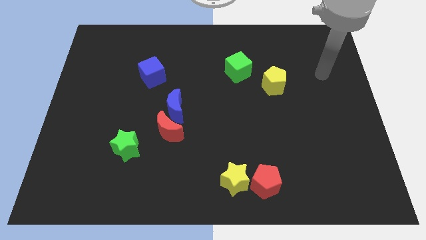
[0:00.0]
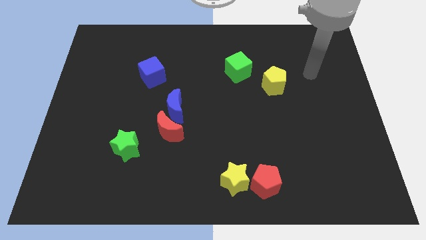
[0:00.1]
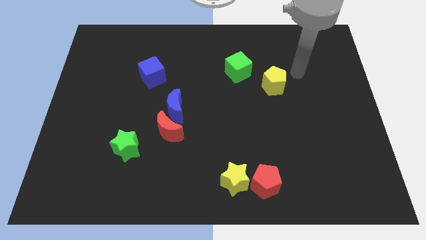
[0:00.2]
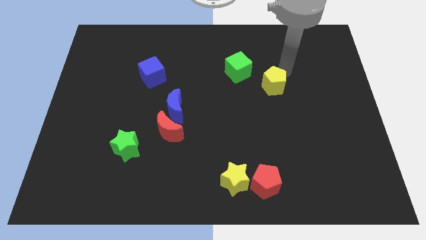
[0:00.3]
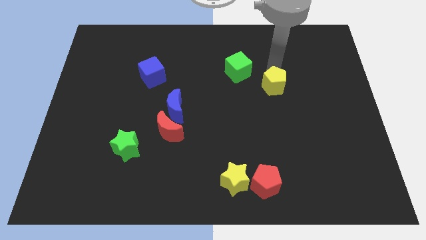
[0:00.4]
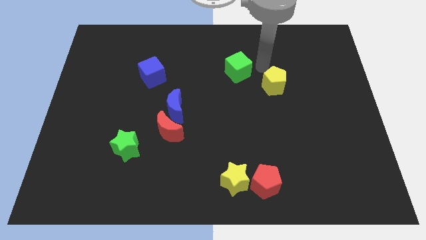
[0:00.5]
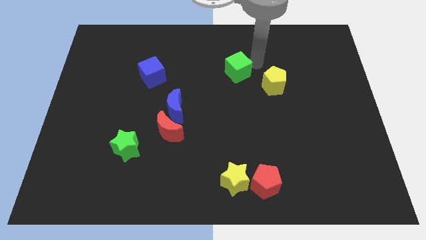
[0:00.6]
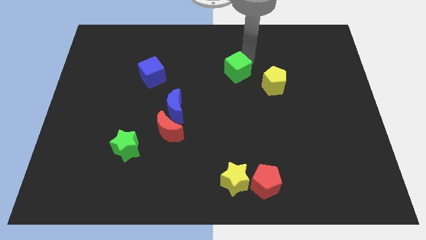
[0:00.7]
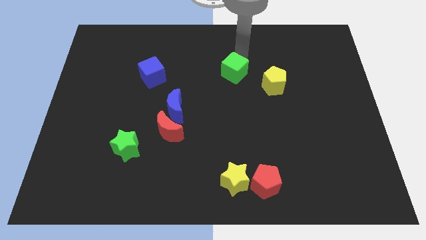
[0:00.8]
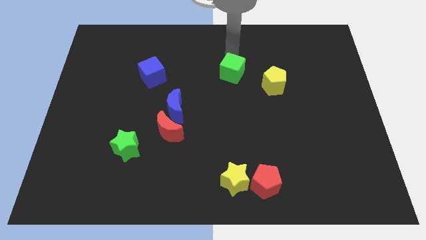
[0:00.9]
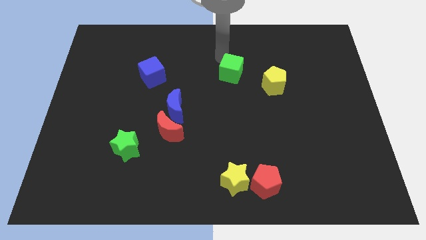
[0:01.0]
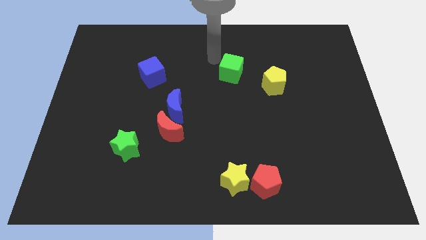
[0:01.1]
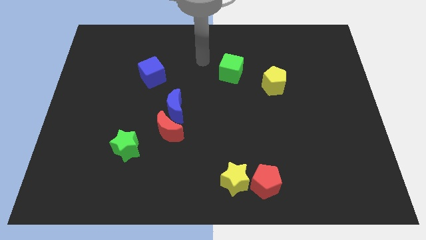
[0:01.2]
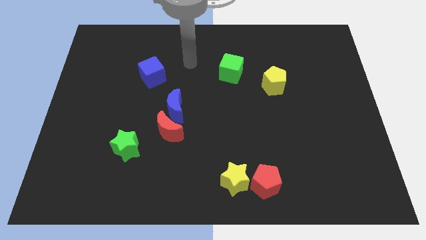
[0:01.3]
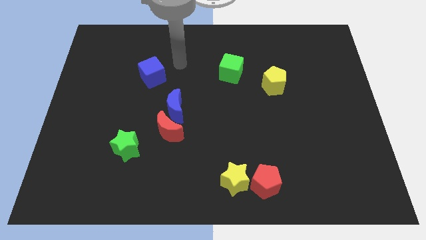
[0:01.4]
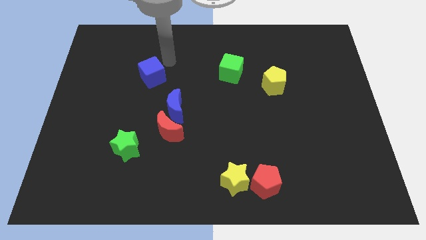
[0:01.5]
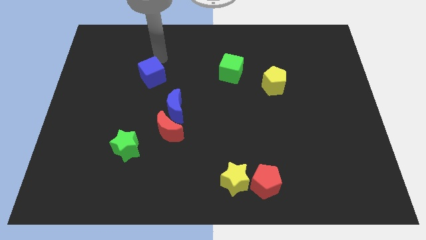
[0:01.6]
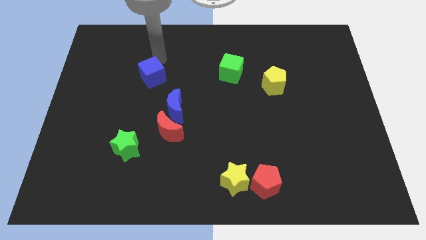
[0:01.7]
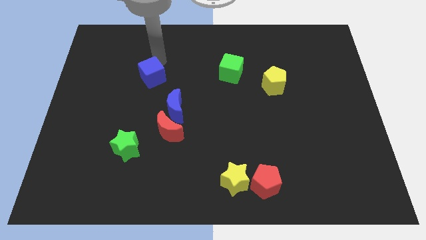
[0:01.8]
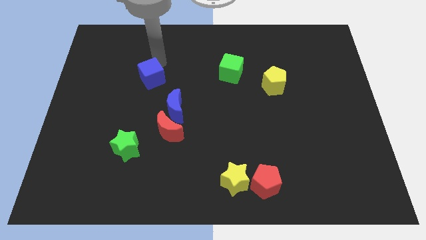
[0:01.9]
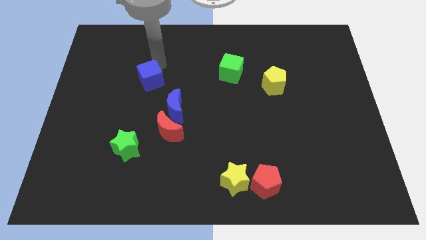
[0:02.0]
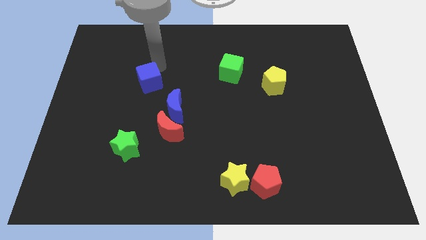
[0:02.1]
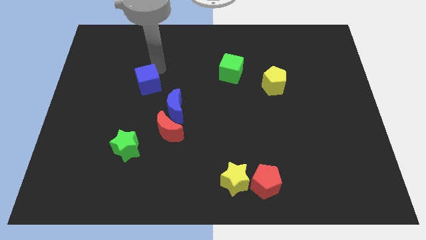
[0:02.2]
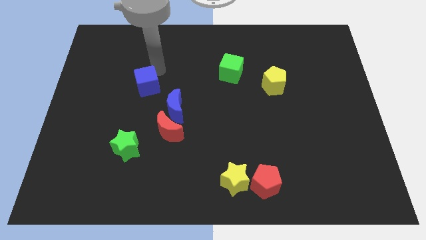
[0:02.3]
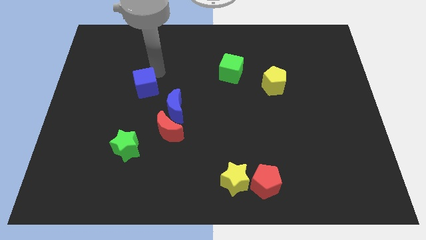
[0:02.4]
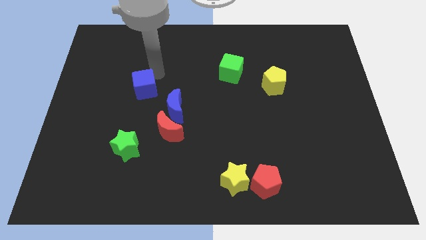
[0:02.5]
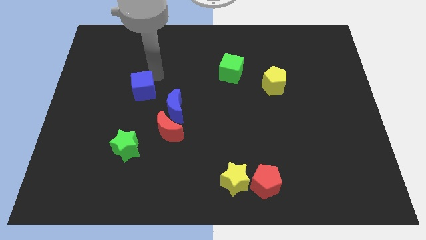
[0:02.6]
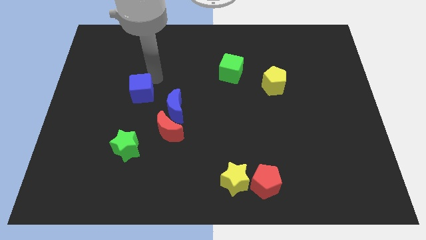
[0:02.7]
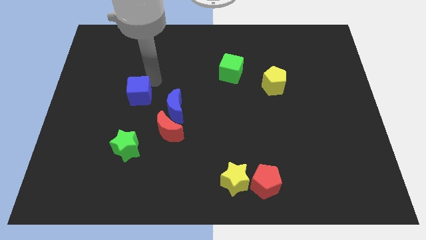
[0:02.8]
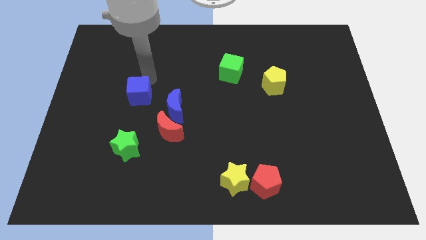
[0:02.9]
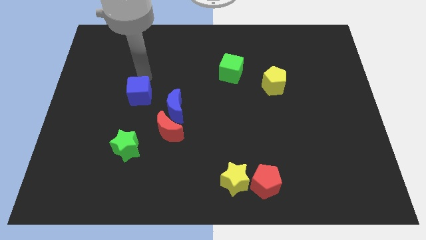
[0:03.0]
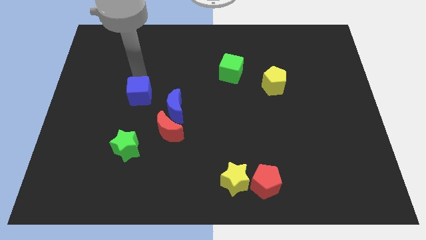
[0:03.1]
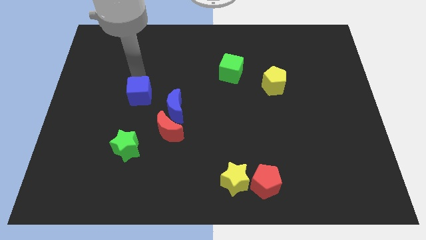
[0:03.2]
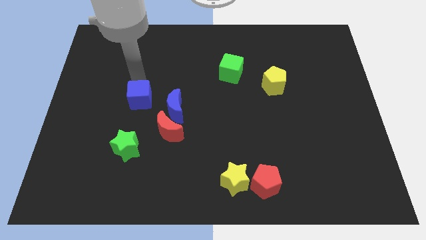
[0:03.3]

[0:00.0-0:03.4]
push the blue cube downwards a little bit

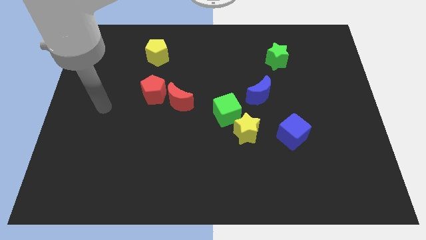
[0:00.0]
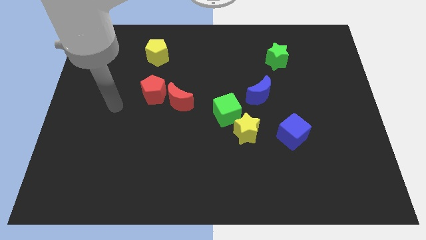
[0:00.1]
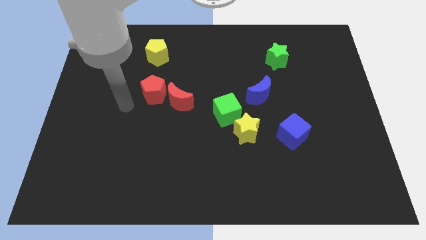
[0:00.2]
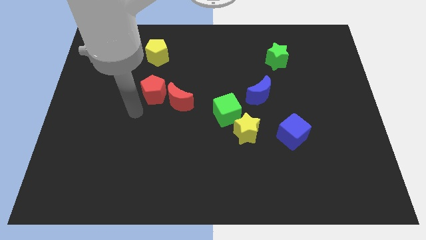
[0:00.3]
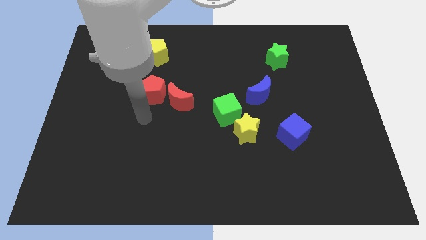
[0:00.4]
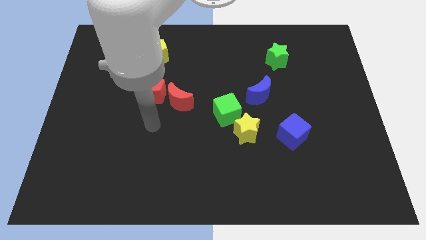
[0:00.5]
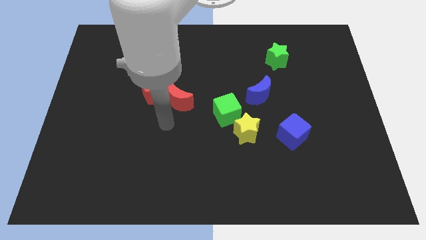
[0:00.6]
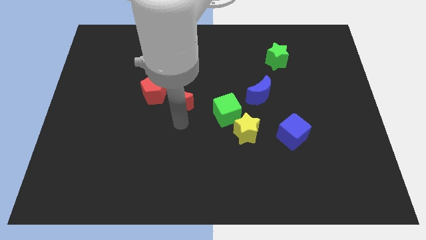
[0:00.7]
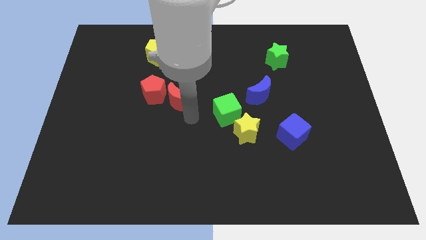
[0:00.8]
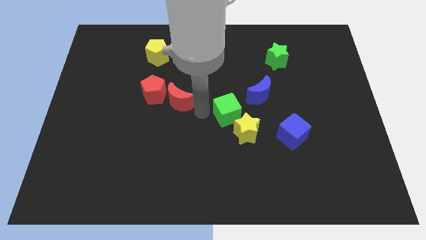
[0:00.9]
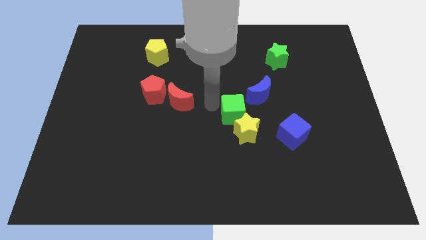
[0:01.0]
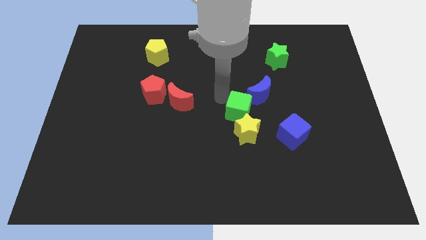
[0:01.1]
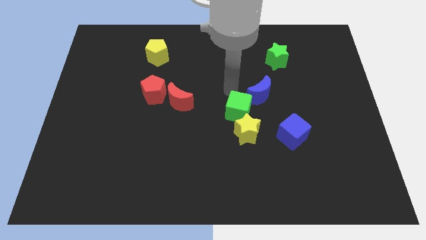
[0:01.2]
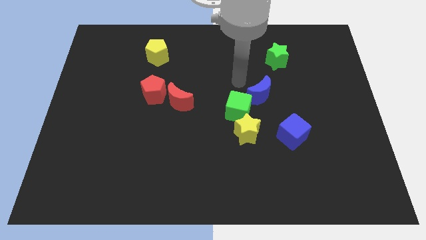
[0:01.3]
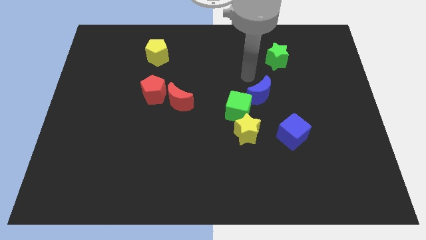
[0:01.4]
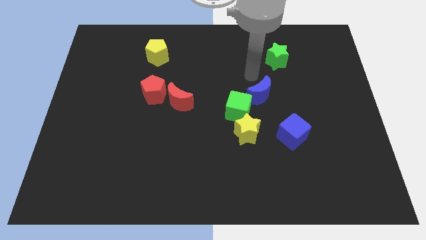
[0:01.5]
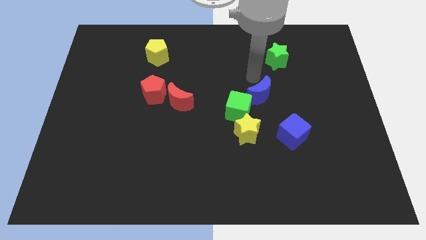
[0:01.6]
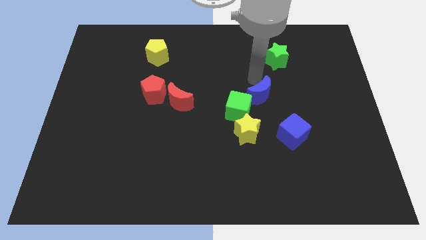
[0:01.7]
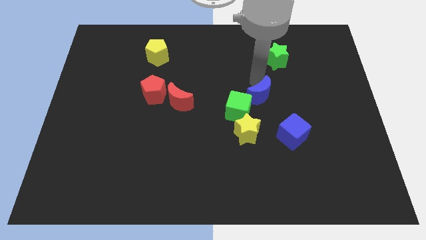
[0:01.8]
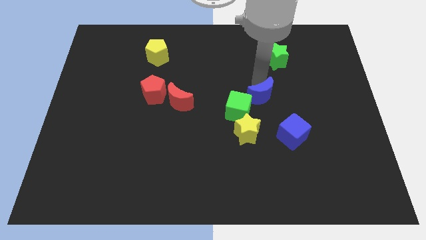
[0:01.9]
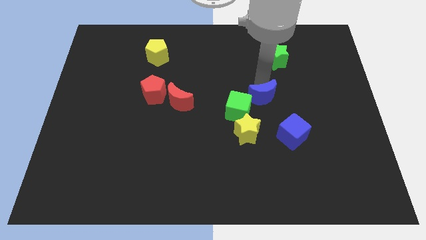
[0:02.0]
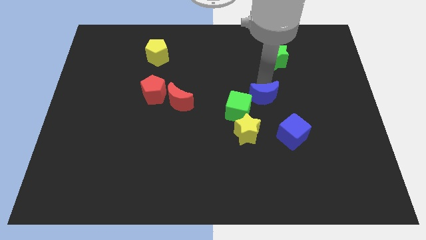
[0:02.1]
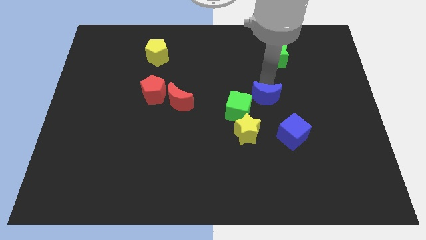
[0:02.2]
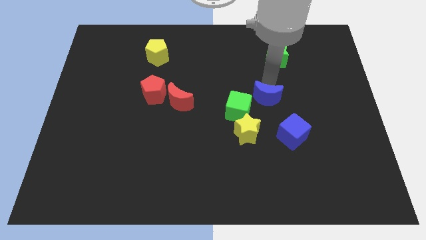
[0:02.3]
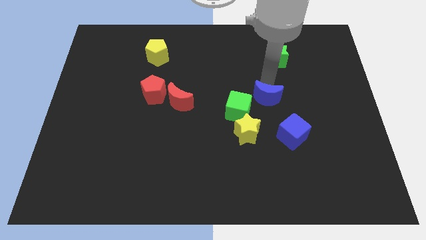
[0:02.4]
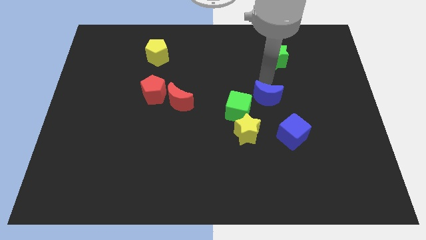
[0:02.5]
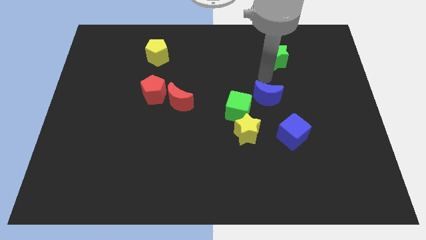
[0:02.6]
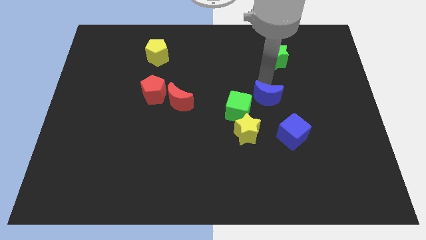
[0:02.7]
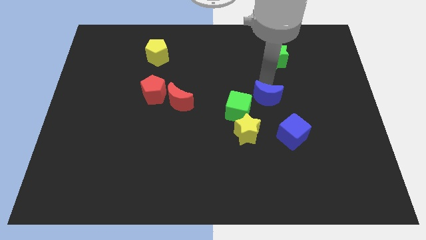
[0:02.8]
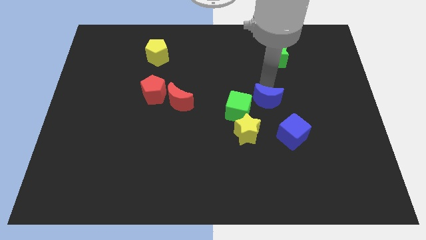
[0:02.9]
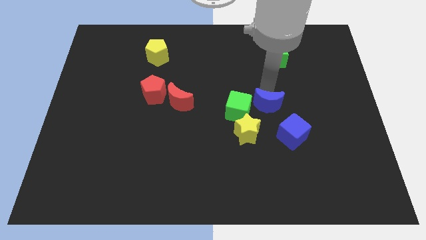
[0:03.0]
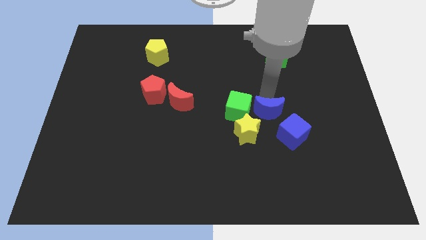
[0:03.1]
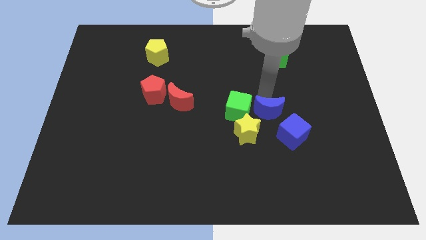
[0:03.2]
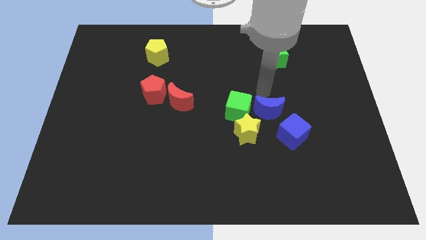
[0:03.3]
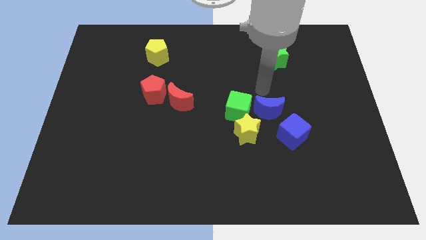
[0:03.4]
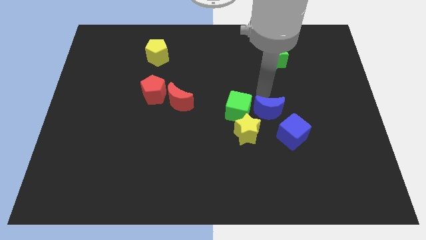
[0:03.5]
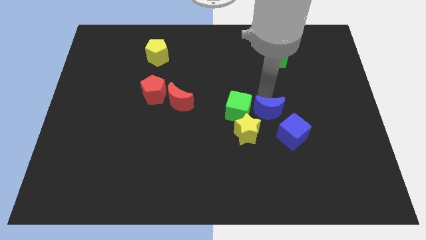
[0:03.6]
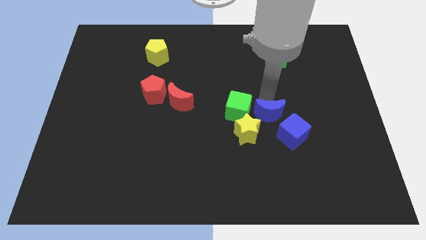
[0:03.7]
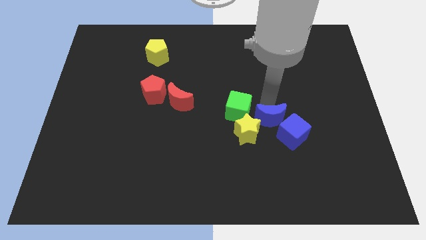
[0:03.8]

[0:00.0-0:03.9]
move the blue moon a little down

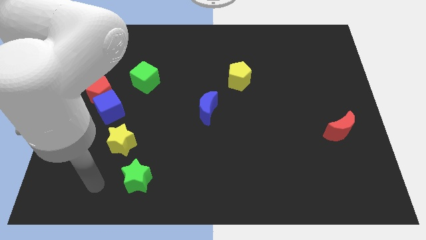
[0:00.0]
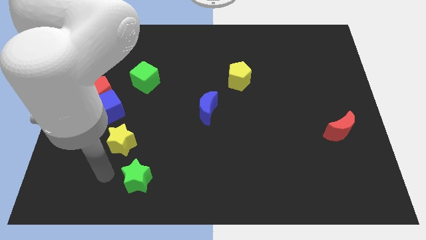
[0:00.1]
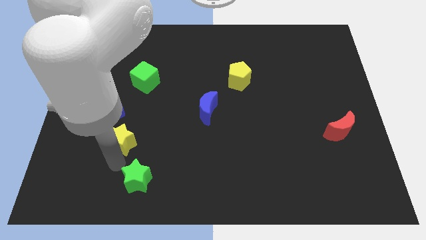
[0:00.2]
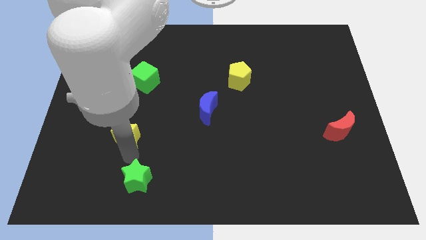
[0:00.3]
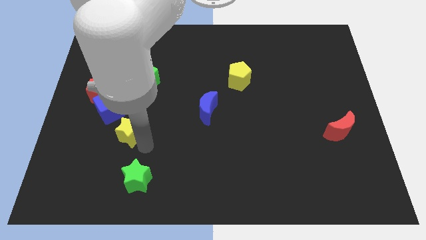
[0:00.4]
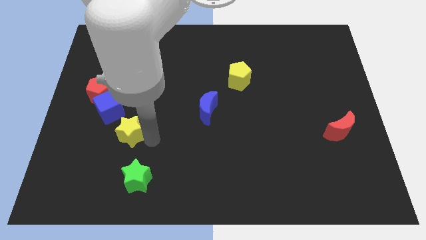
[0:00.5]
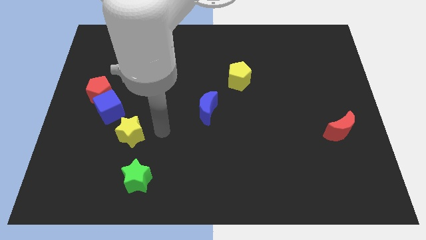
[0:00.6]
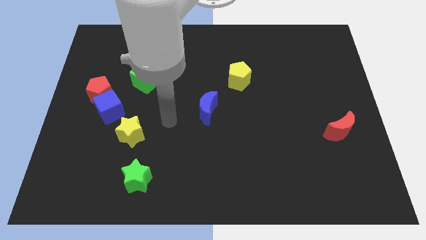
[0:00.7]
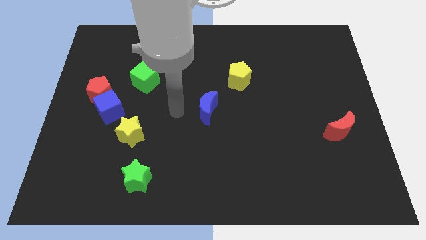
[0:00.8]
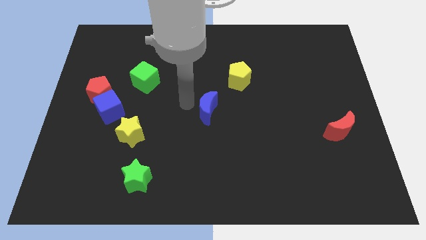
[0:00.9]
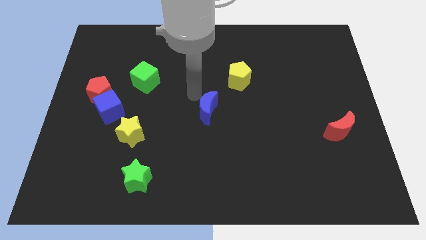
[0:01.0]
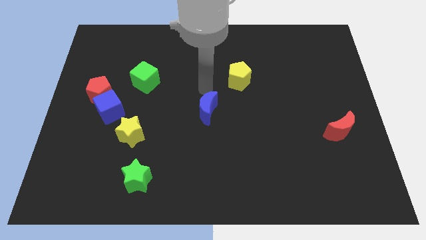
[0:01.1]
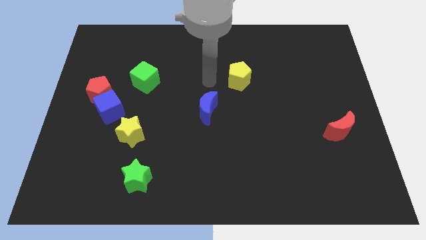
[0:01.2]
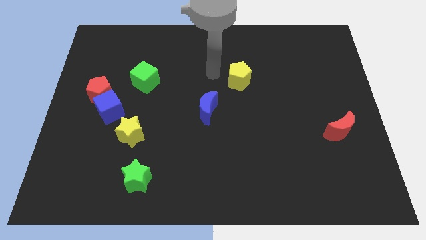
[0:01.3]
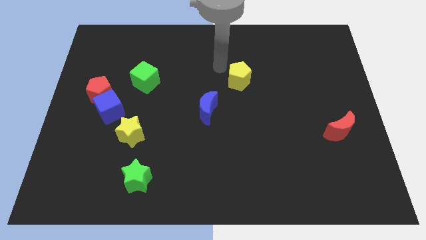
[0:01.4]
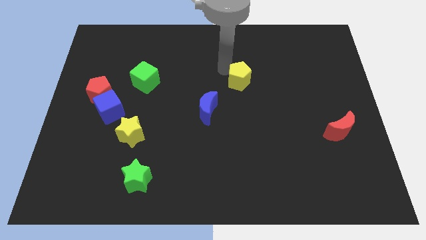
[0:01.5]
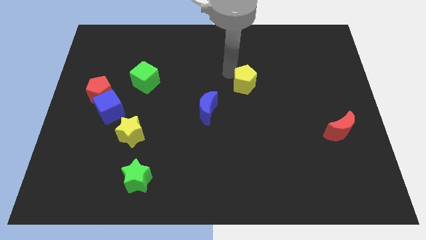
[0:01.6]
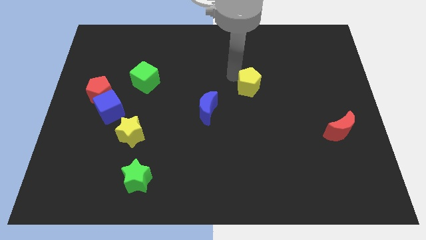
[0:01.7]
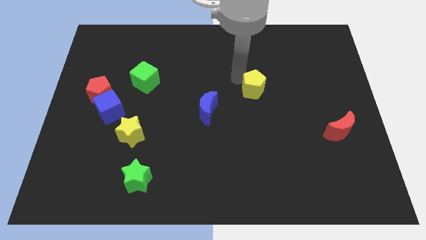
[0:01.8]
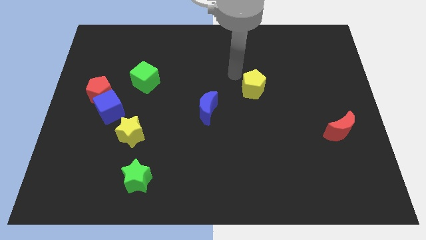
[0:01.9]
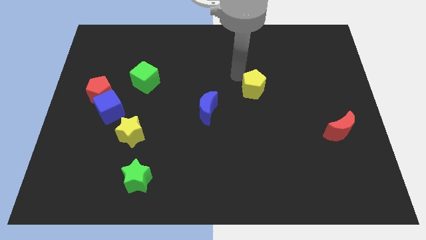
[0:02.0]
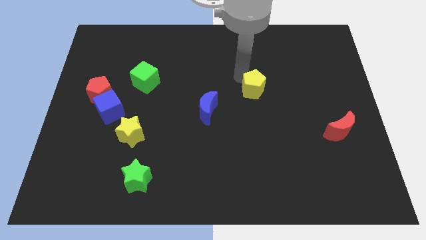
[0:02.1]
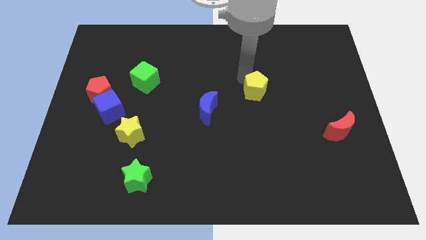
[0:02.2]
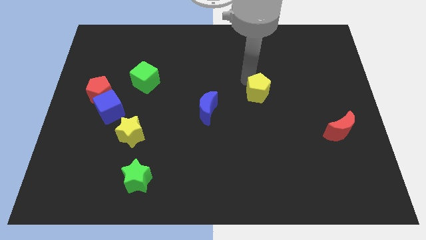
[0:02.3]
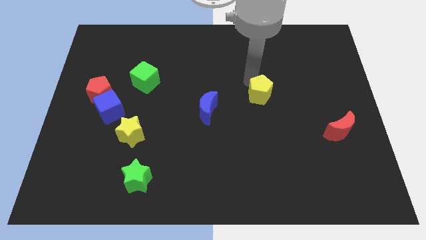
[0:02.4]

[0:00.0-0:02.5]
move the yellow pentagon slightly downwards and to the right
